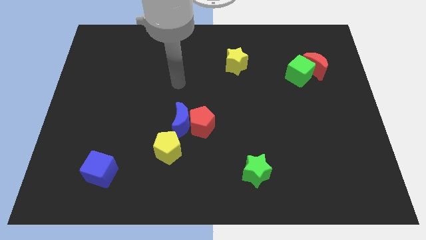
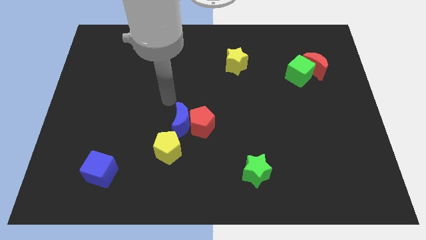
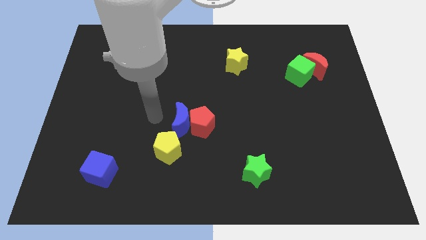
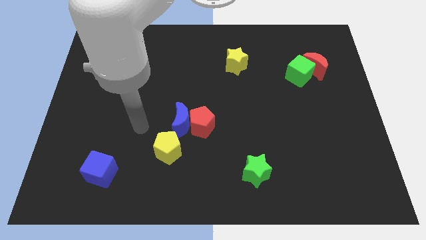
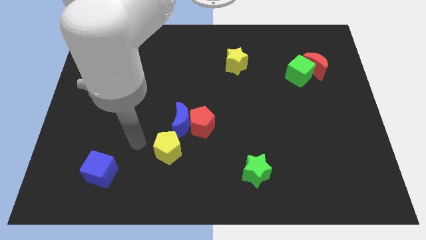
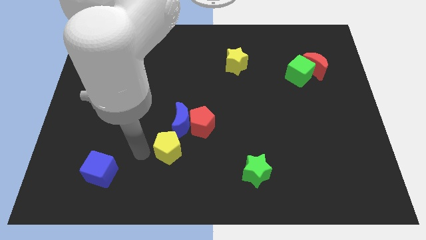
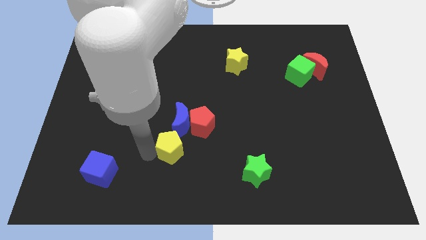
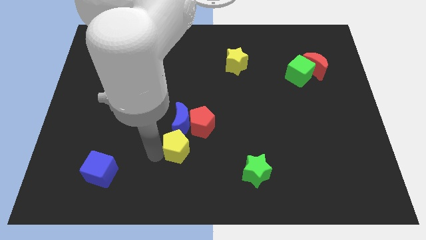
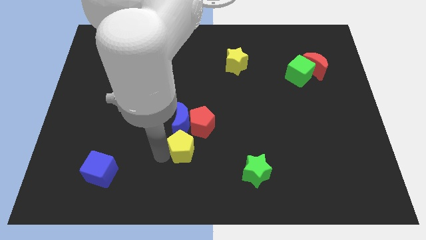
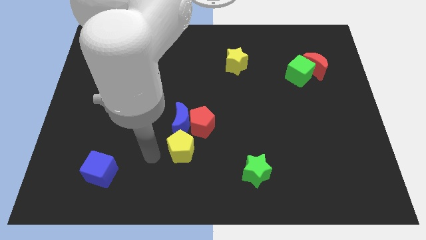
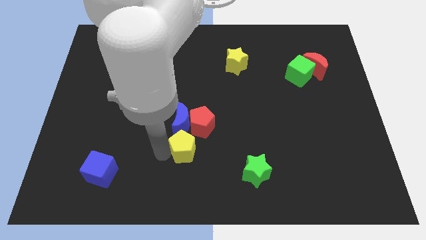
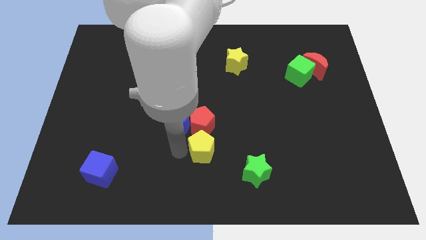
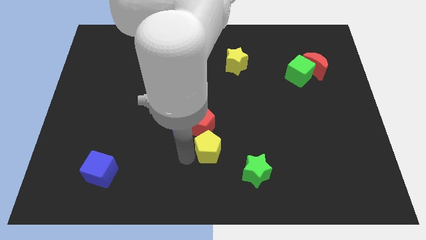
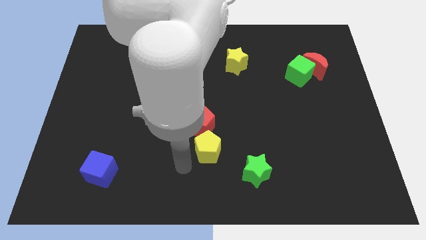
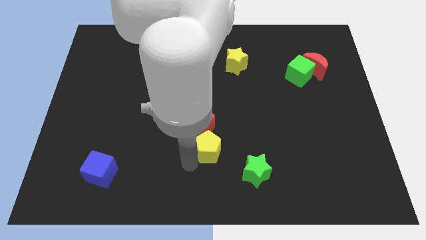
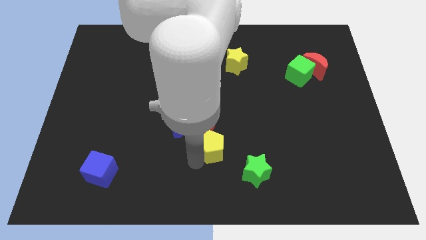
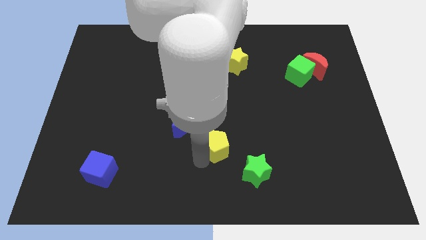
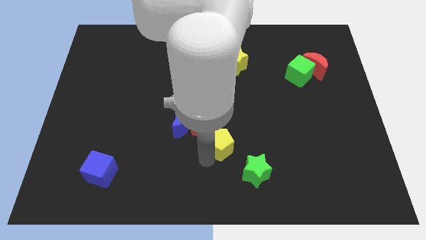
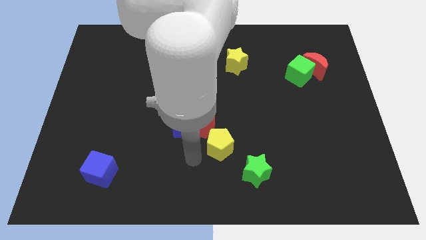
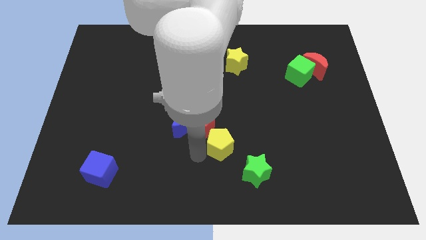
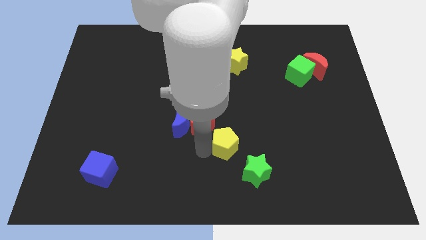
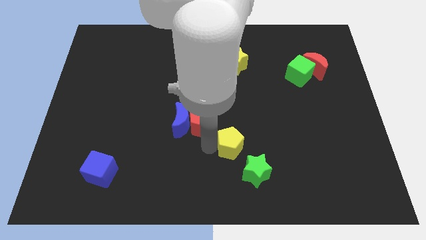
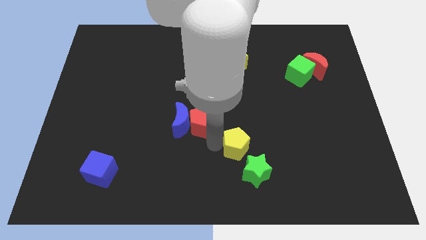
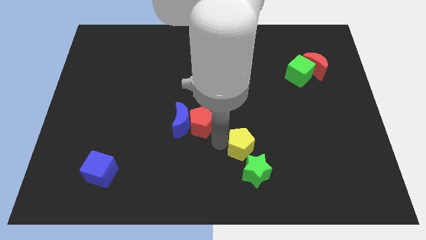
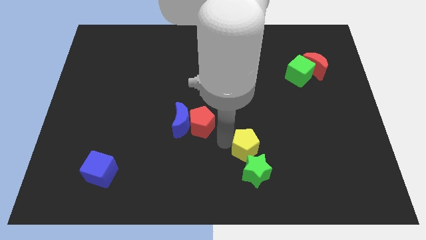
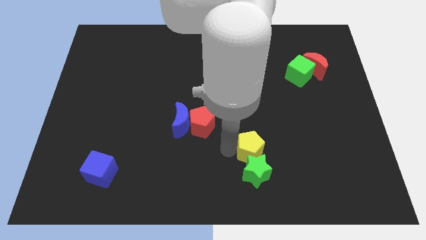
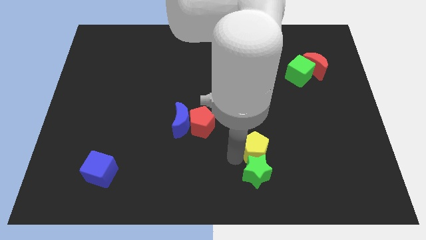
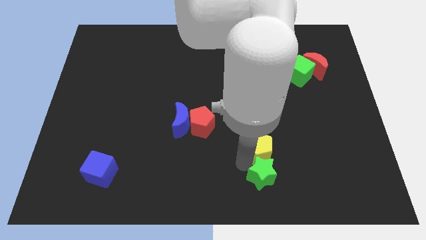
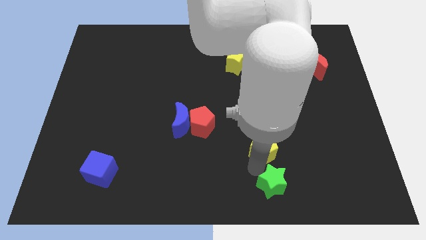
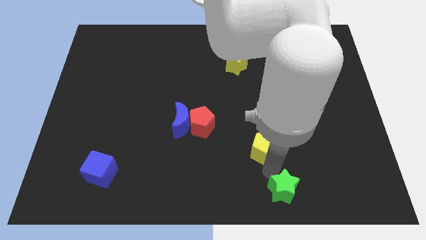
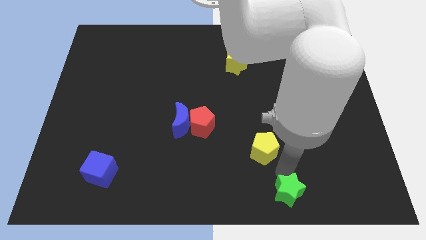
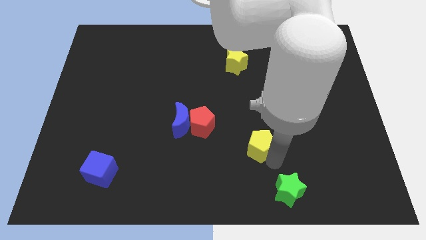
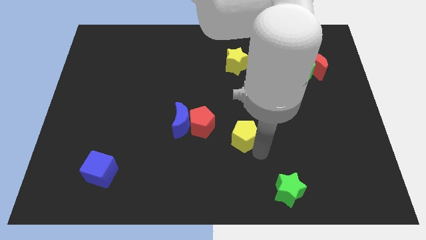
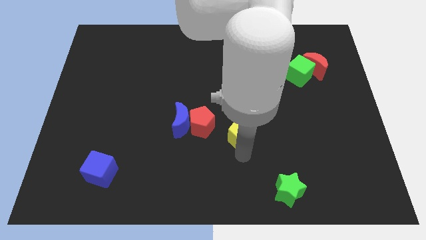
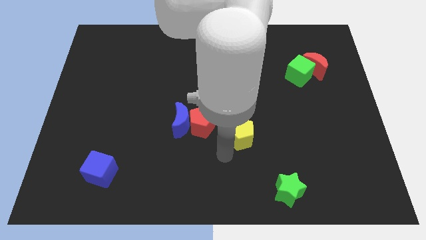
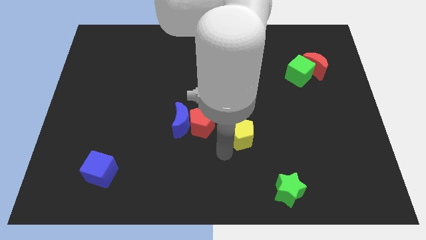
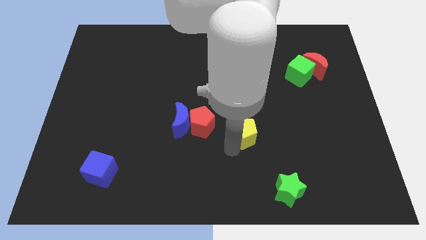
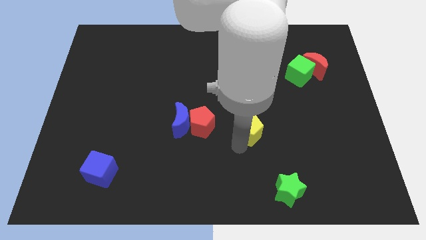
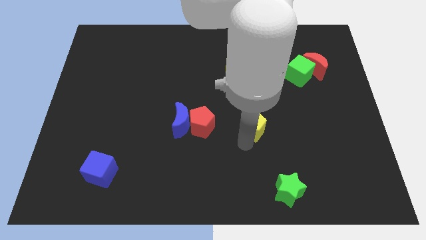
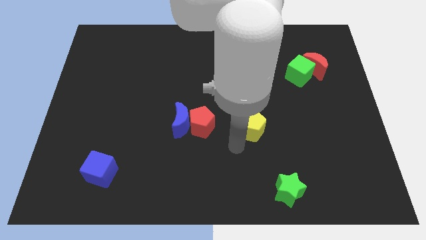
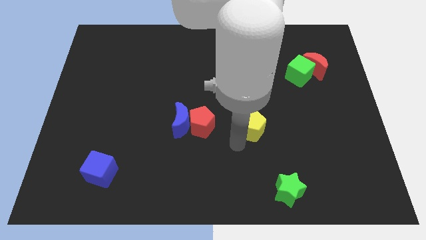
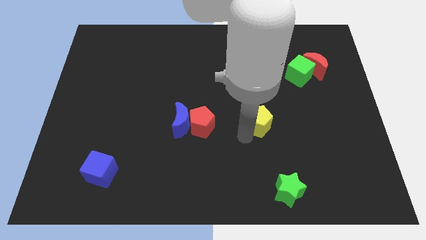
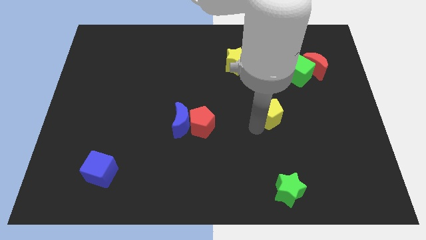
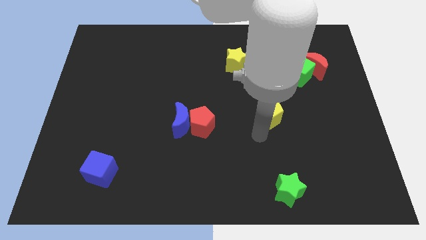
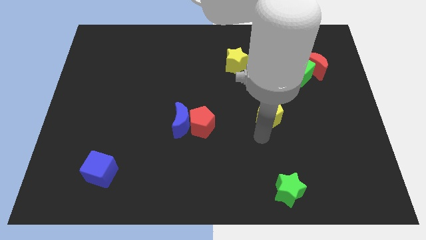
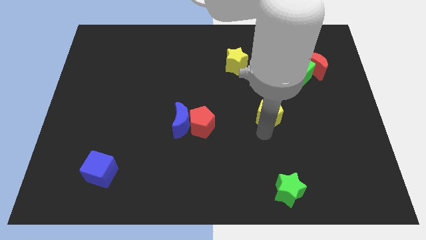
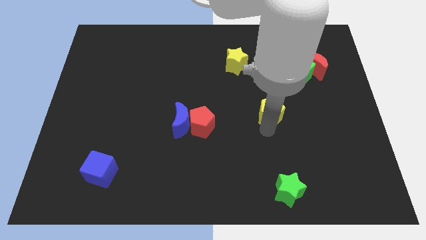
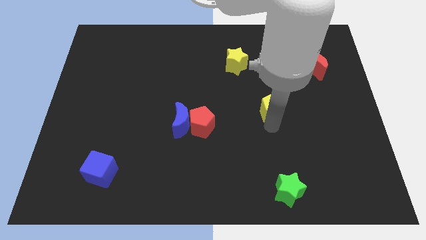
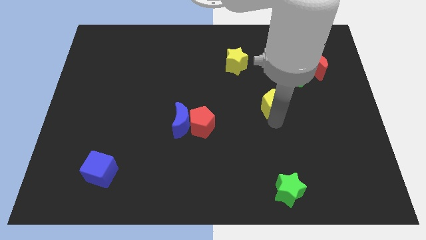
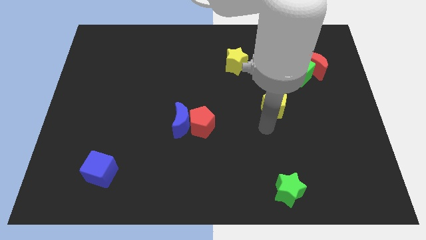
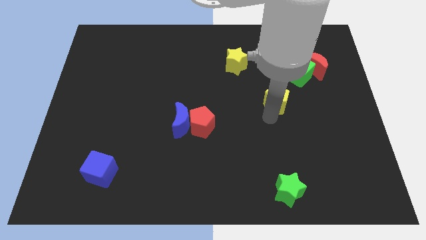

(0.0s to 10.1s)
push the yellow pentagon diagonally down and to the left of the green cube

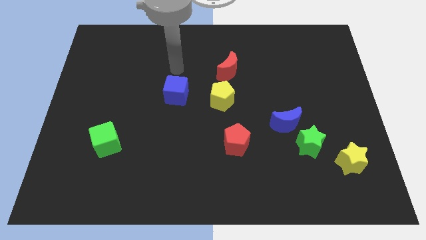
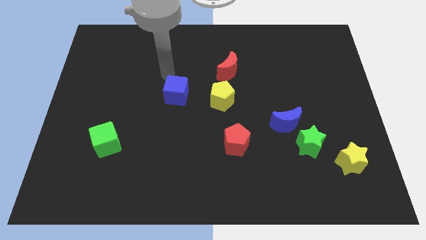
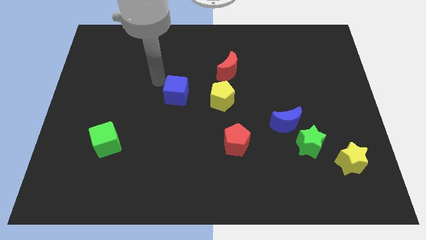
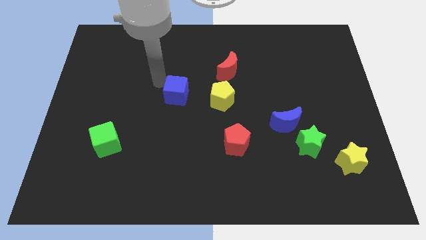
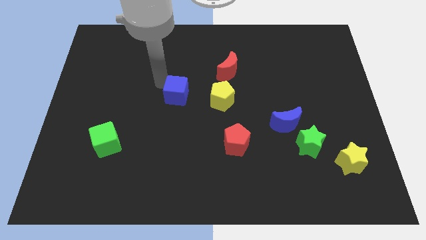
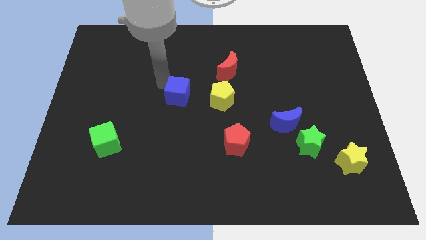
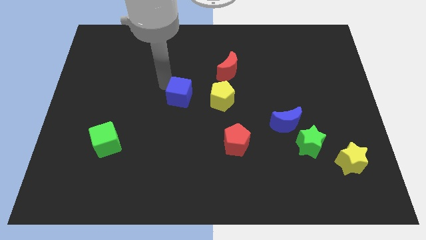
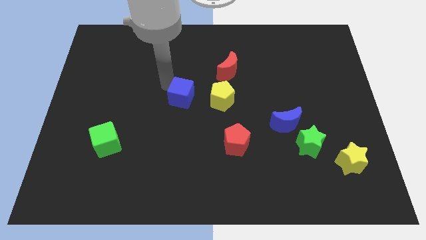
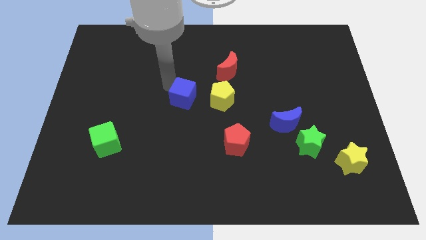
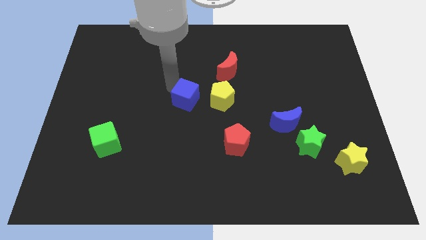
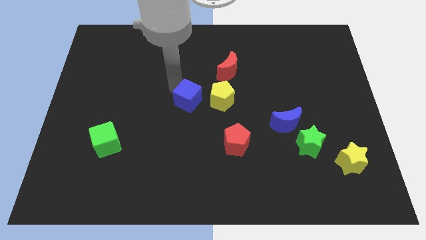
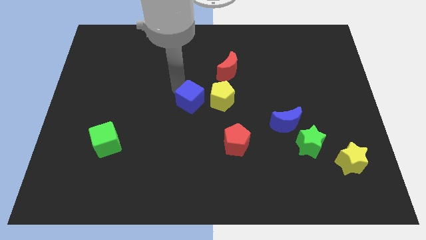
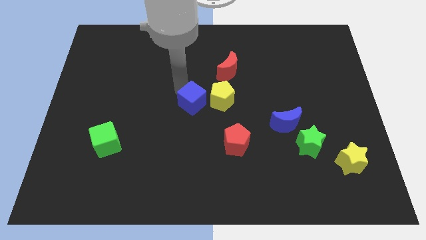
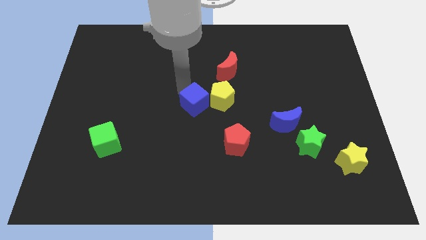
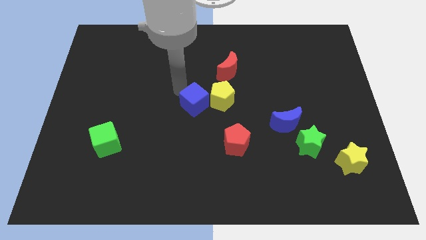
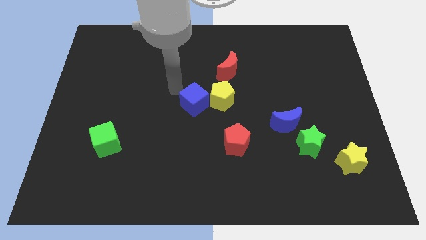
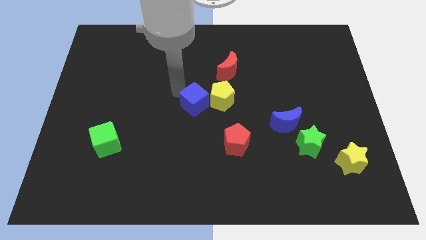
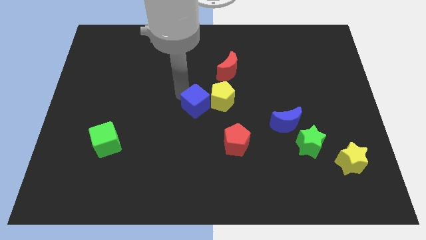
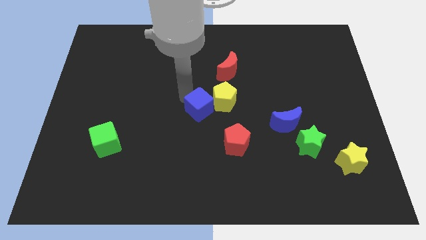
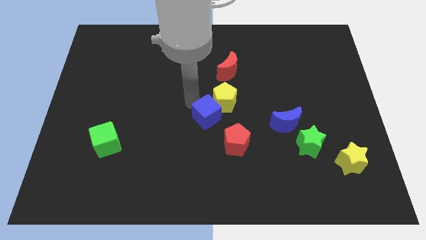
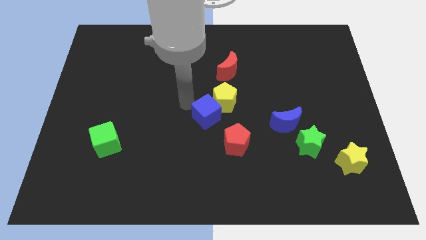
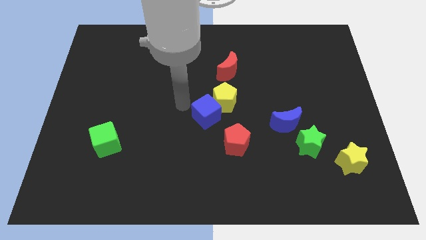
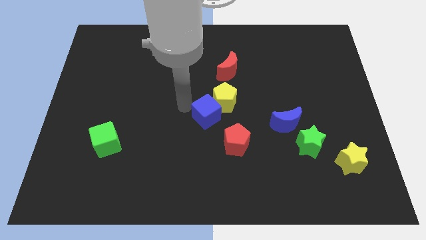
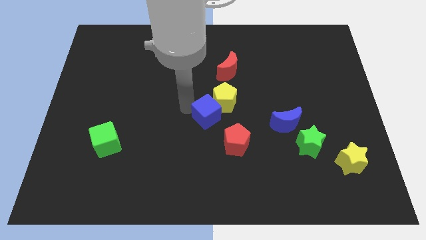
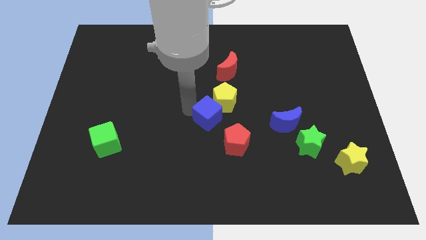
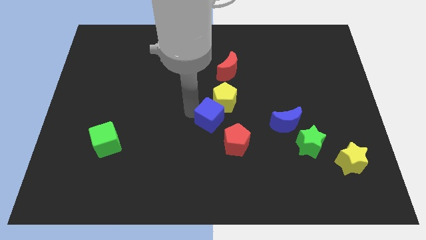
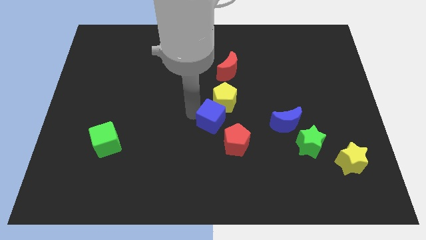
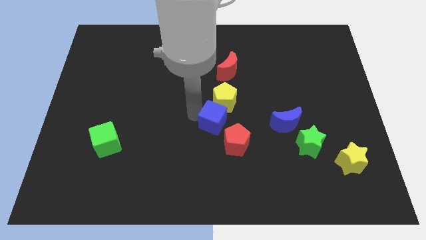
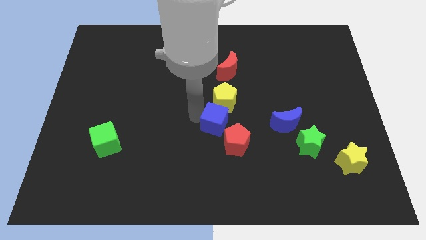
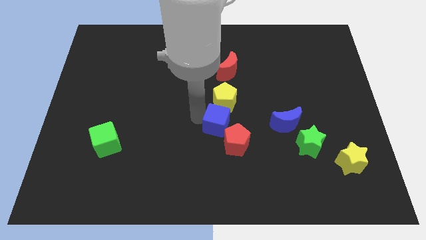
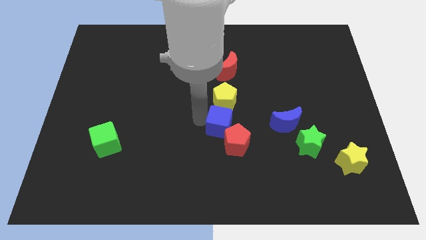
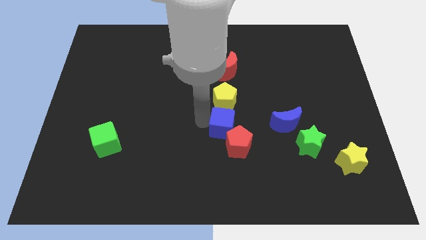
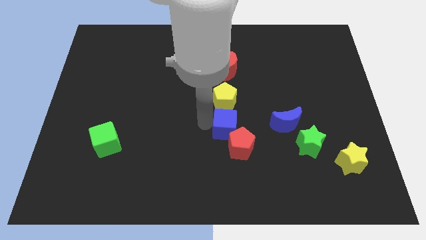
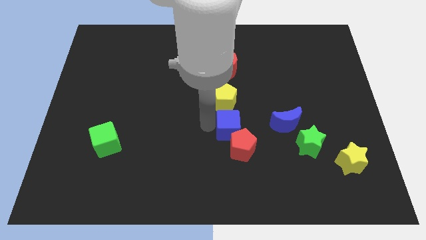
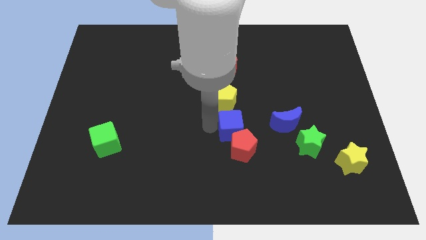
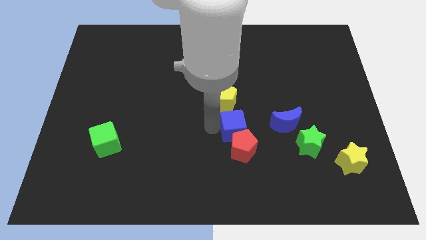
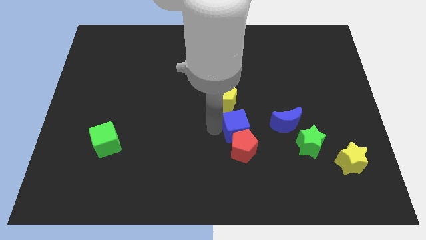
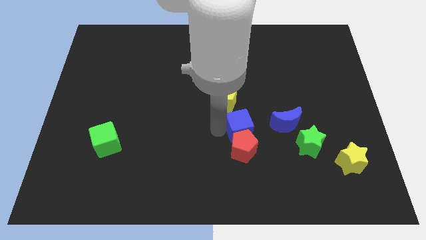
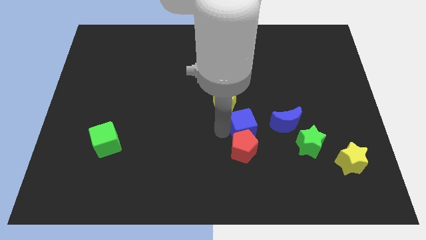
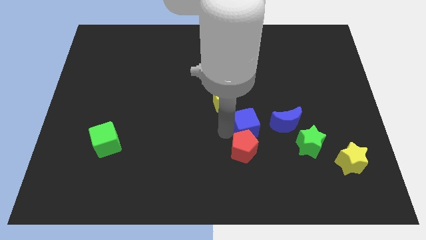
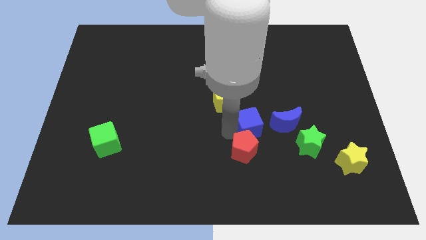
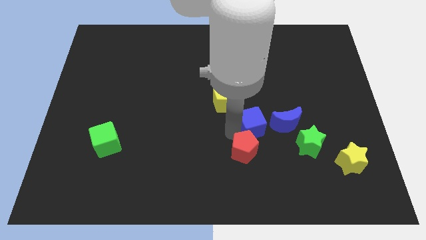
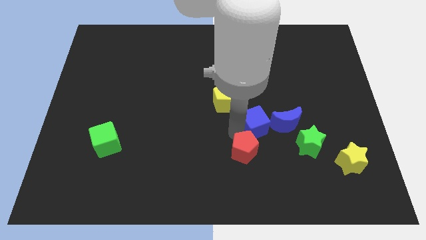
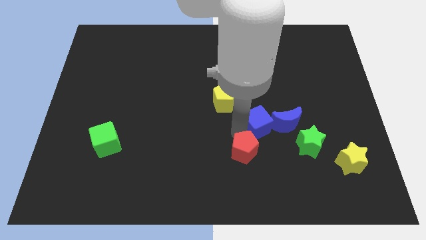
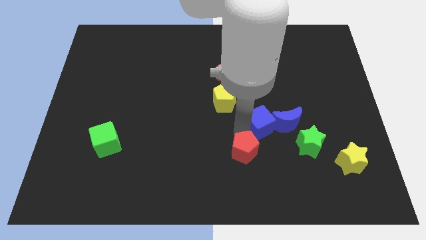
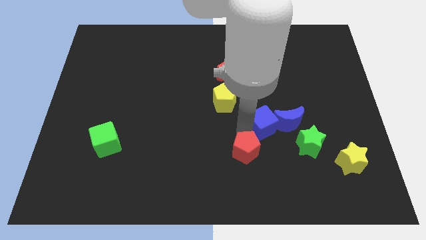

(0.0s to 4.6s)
slide the blue cube diagonally up and to the left of the green star
